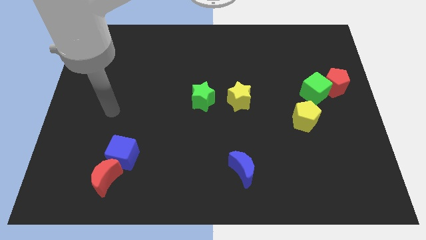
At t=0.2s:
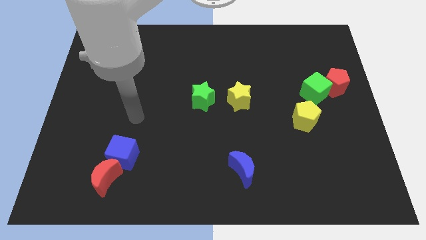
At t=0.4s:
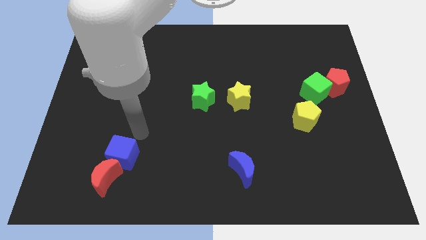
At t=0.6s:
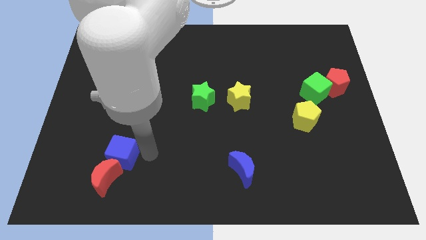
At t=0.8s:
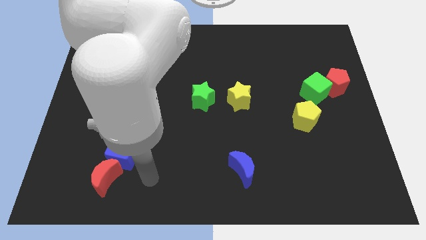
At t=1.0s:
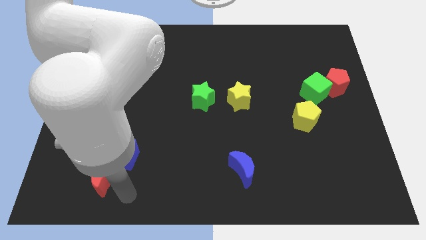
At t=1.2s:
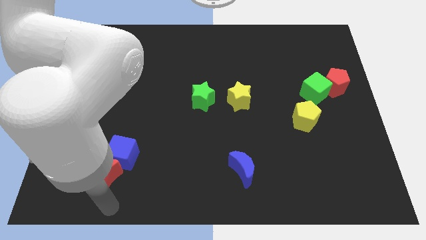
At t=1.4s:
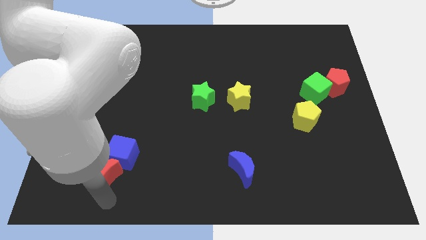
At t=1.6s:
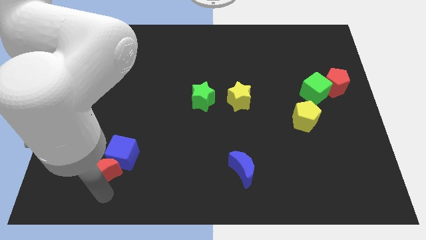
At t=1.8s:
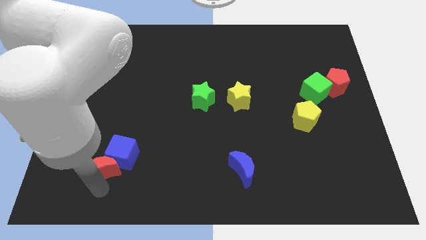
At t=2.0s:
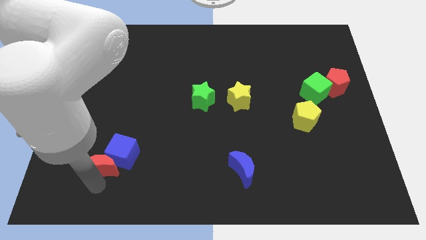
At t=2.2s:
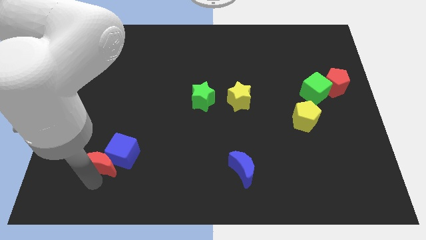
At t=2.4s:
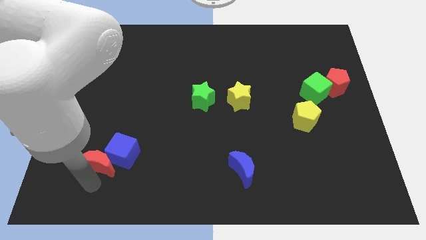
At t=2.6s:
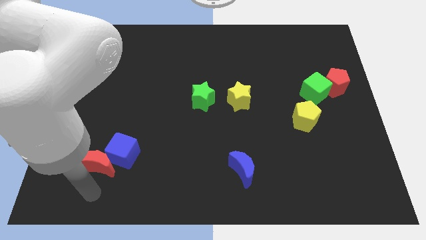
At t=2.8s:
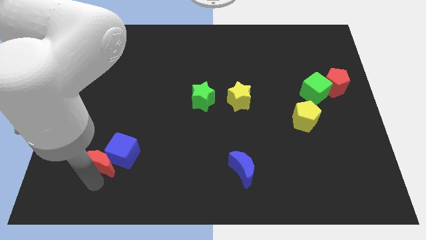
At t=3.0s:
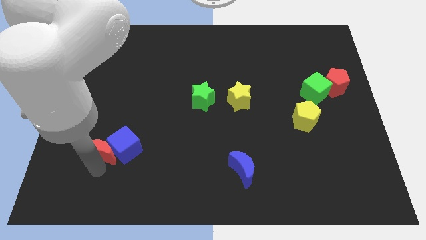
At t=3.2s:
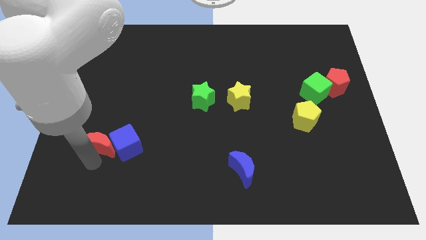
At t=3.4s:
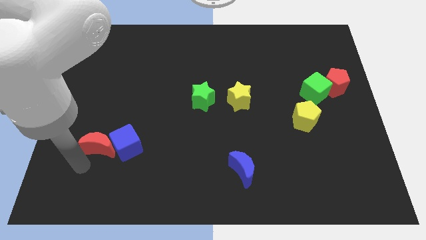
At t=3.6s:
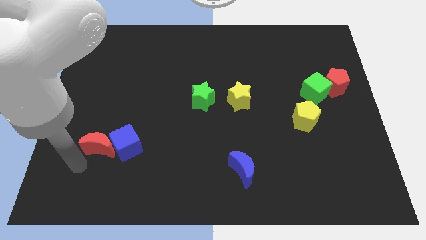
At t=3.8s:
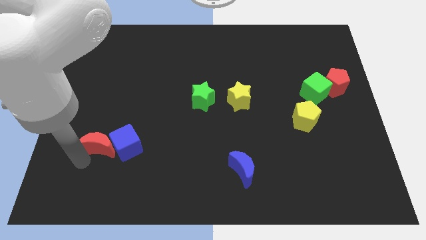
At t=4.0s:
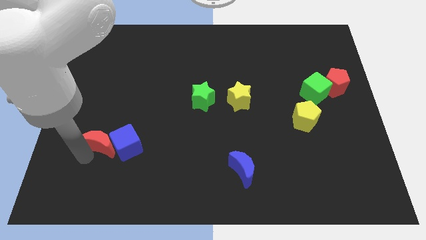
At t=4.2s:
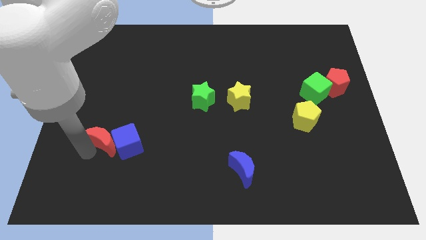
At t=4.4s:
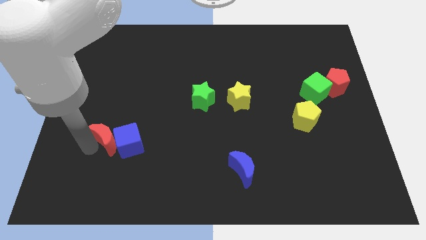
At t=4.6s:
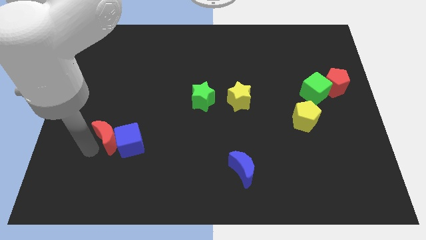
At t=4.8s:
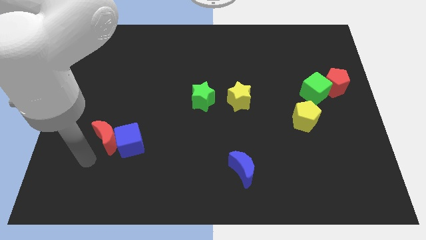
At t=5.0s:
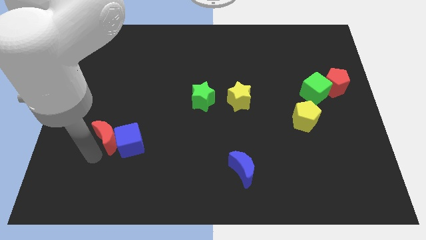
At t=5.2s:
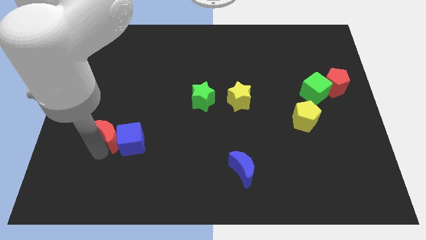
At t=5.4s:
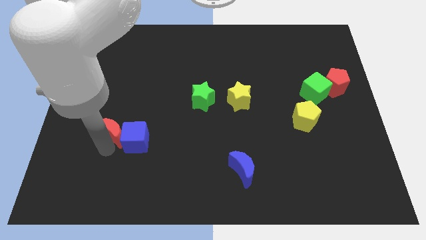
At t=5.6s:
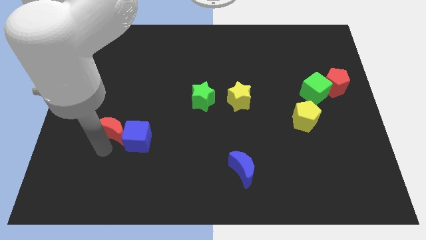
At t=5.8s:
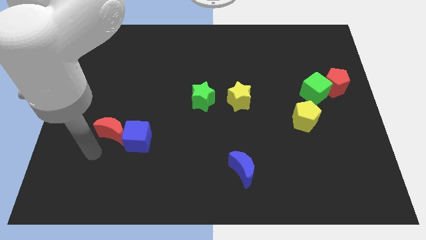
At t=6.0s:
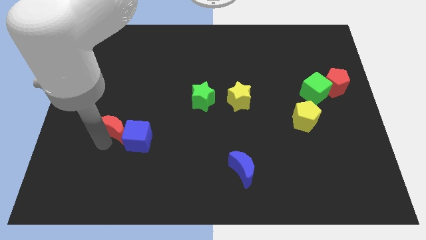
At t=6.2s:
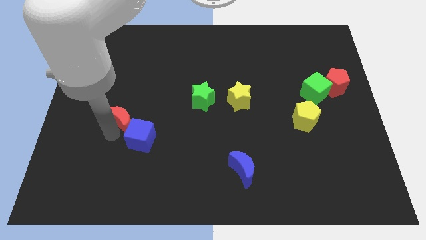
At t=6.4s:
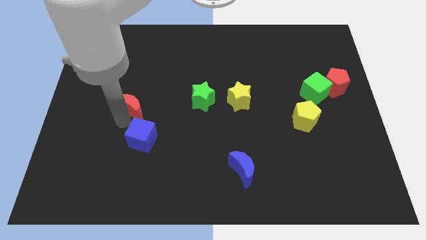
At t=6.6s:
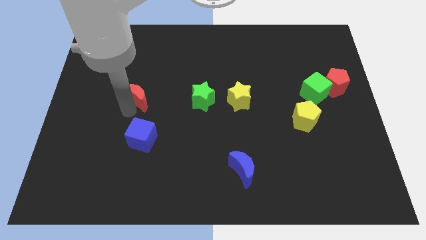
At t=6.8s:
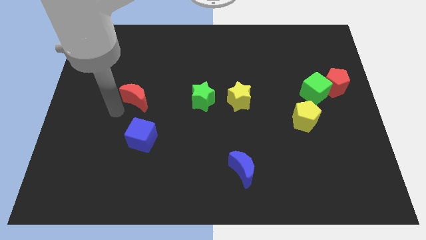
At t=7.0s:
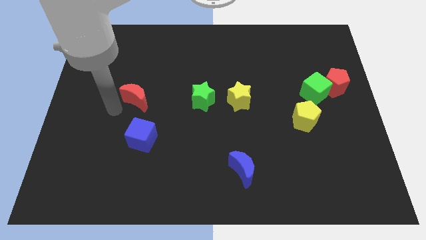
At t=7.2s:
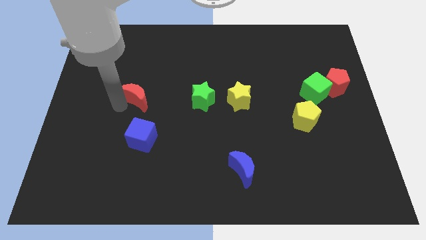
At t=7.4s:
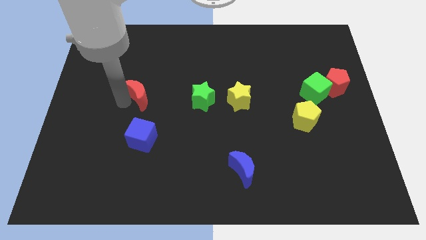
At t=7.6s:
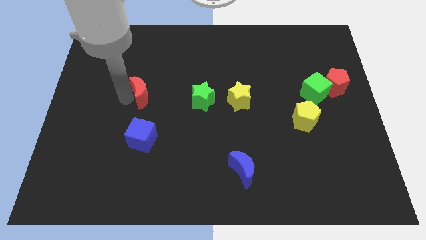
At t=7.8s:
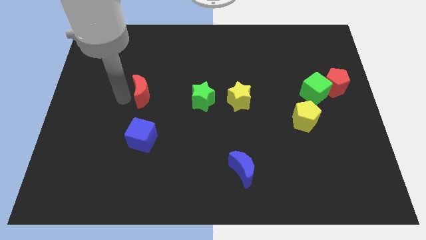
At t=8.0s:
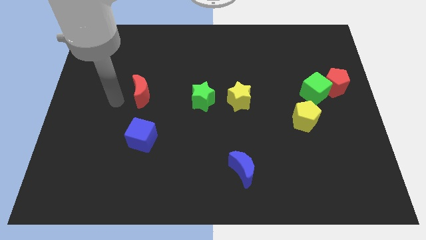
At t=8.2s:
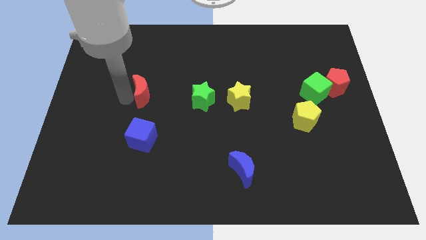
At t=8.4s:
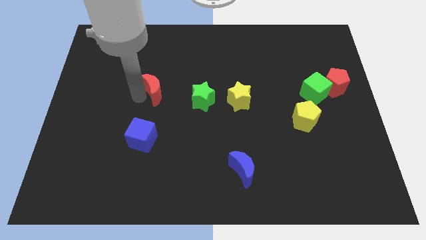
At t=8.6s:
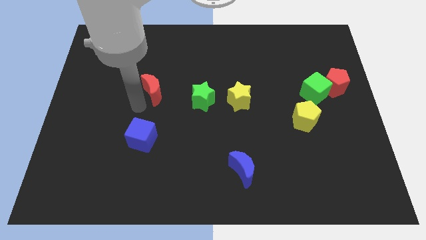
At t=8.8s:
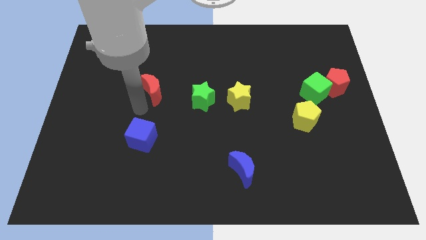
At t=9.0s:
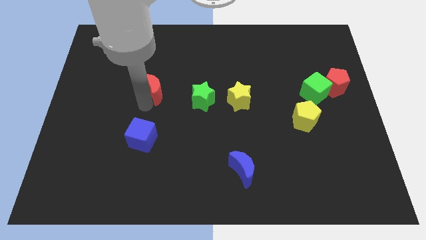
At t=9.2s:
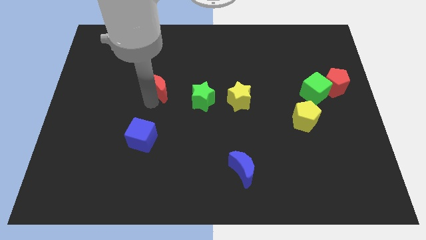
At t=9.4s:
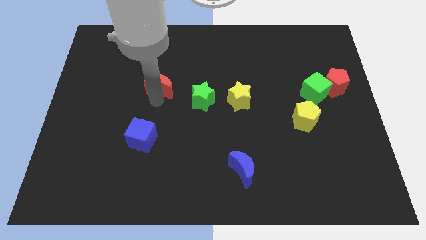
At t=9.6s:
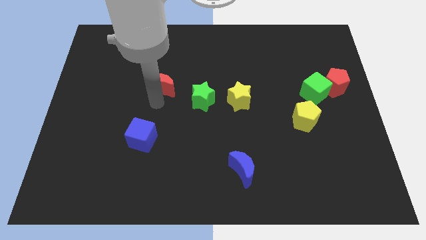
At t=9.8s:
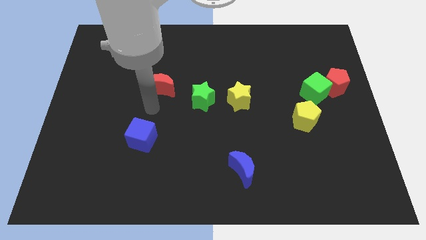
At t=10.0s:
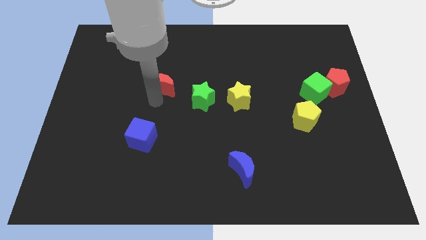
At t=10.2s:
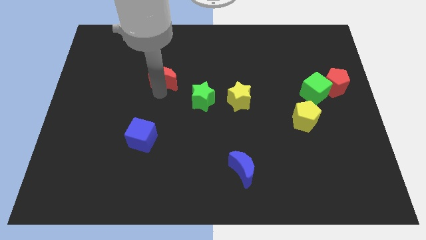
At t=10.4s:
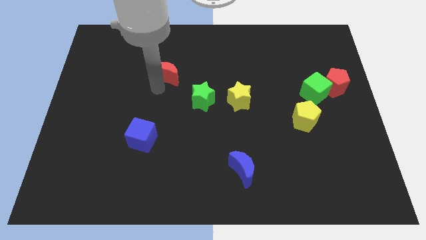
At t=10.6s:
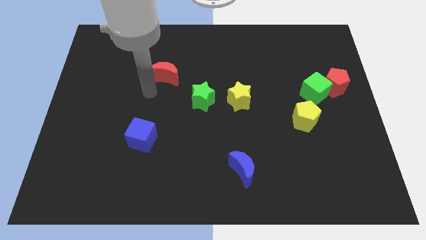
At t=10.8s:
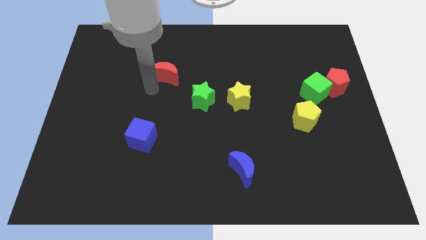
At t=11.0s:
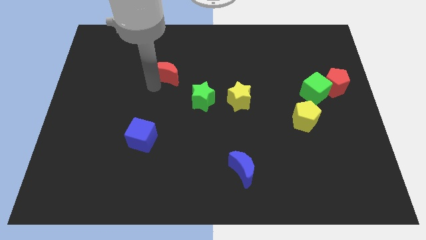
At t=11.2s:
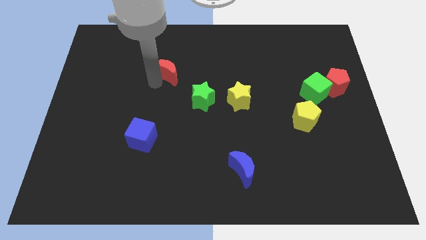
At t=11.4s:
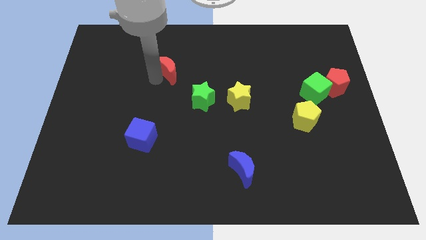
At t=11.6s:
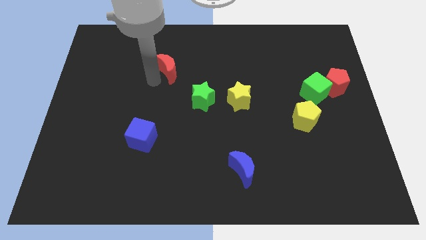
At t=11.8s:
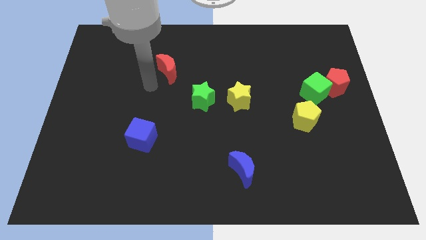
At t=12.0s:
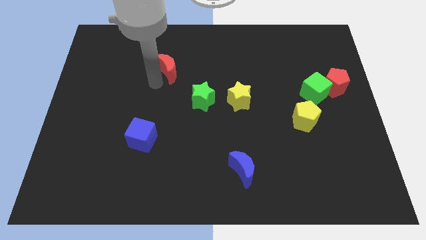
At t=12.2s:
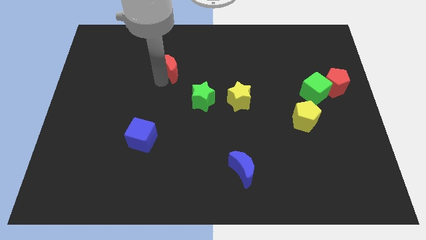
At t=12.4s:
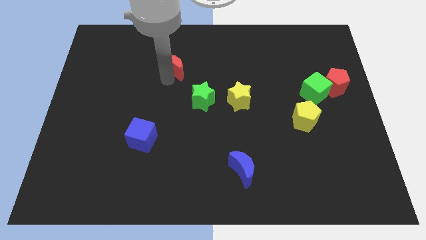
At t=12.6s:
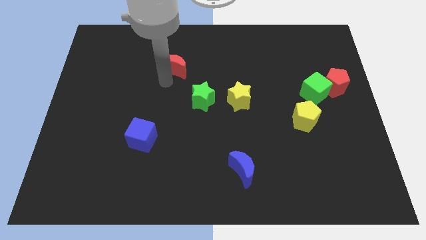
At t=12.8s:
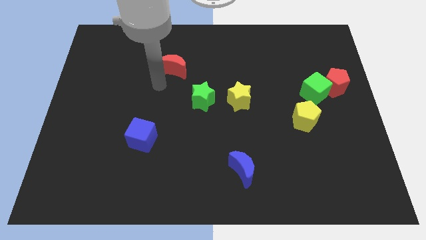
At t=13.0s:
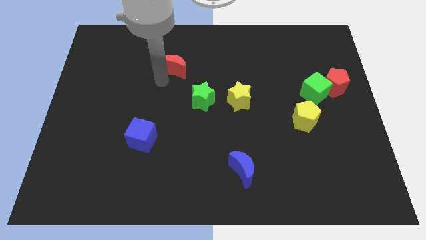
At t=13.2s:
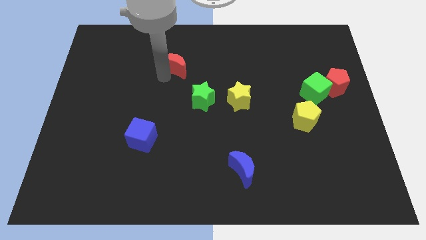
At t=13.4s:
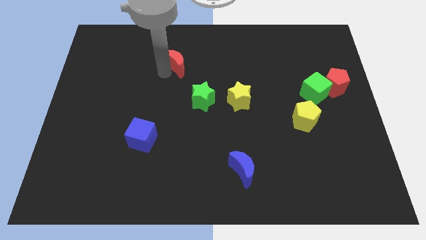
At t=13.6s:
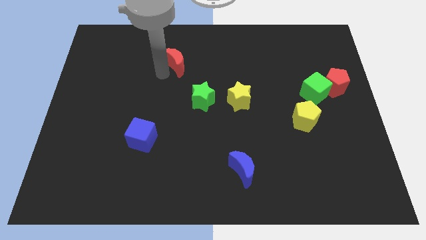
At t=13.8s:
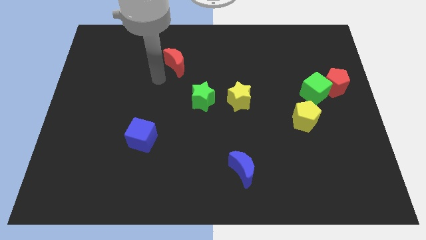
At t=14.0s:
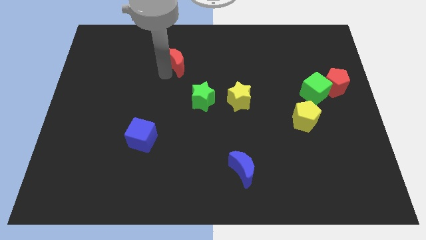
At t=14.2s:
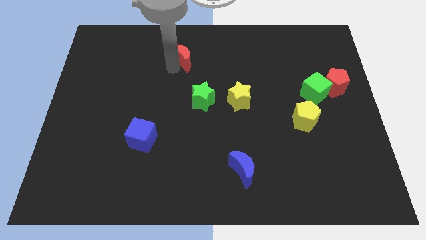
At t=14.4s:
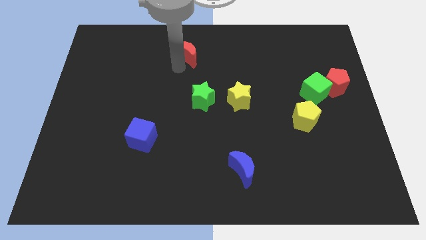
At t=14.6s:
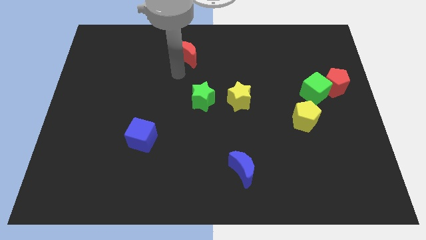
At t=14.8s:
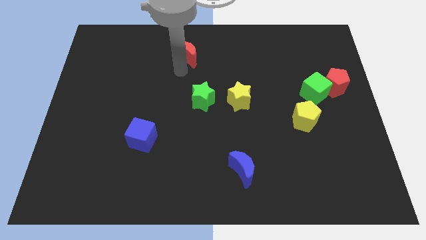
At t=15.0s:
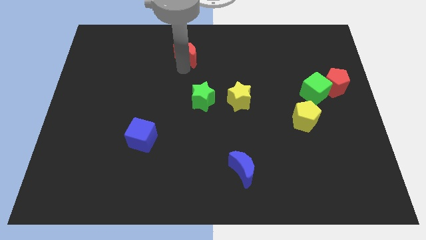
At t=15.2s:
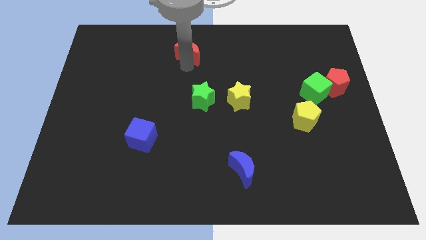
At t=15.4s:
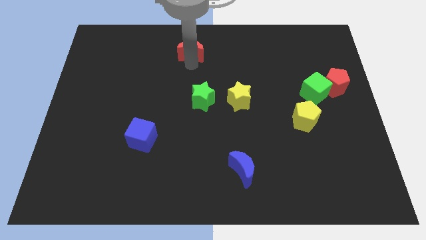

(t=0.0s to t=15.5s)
put the red moon to the towards your base
